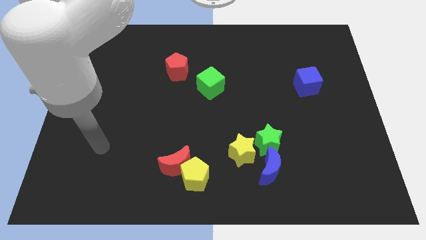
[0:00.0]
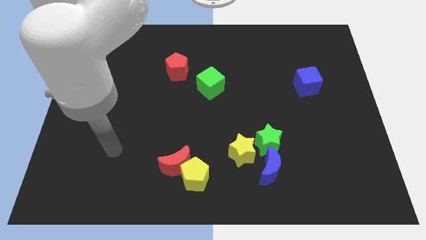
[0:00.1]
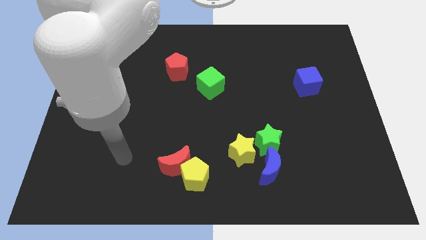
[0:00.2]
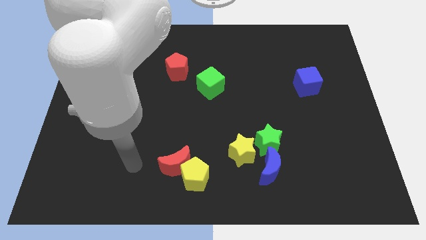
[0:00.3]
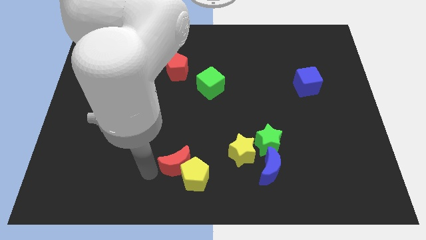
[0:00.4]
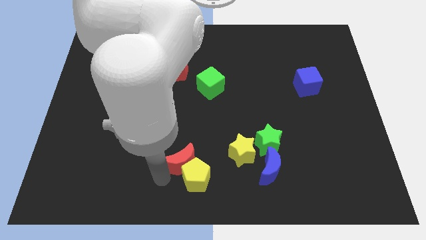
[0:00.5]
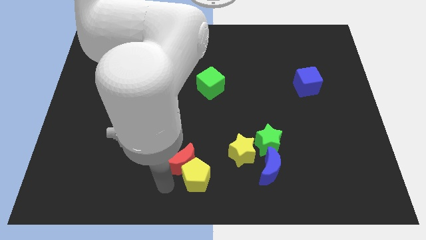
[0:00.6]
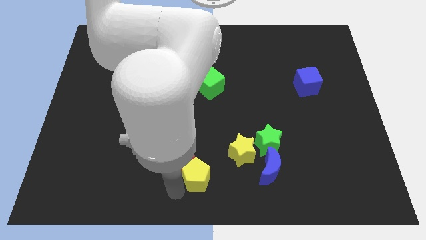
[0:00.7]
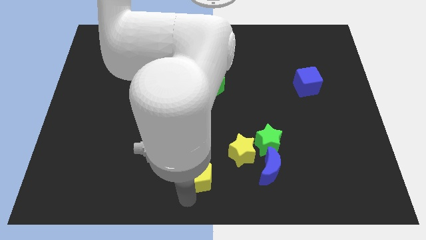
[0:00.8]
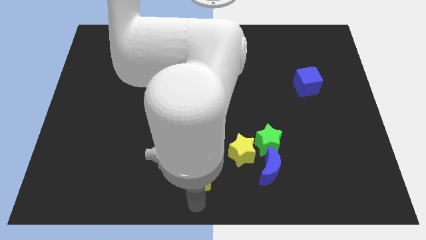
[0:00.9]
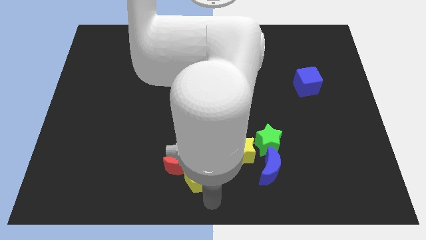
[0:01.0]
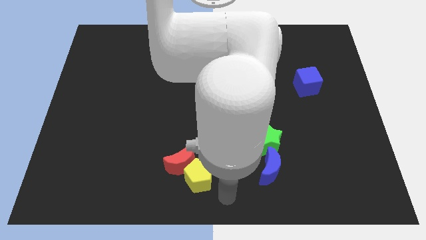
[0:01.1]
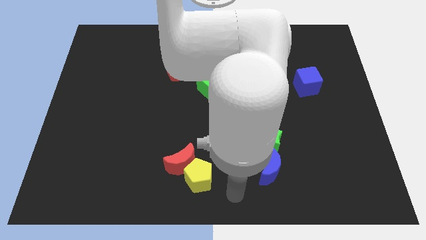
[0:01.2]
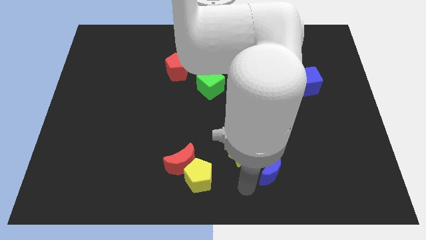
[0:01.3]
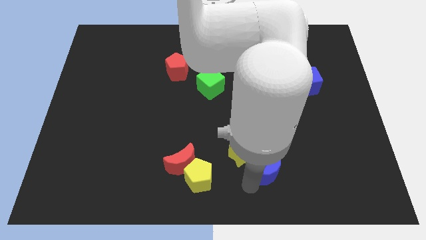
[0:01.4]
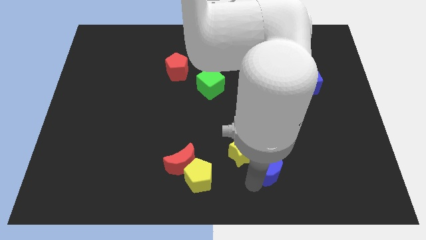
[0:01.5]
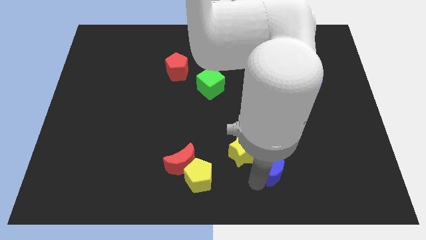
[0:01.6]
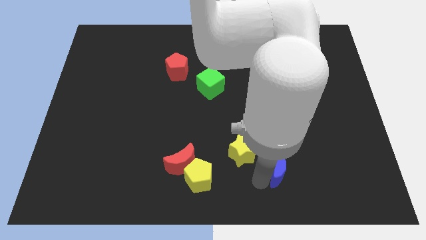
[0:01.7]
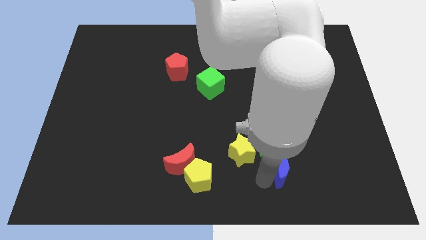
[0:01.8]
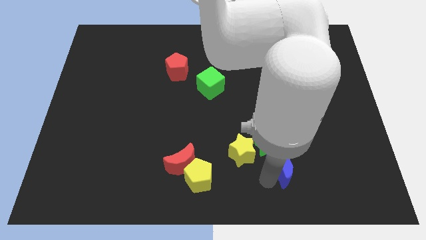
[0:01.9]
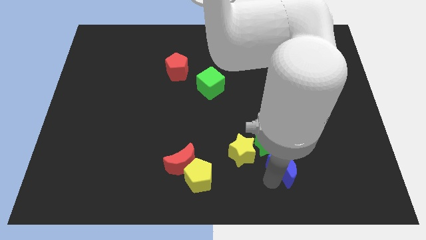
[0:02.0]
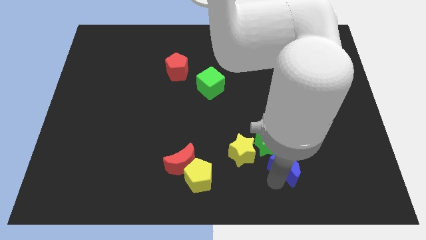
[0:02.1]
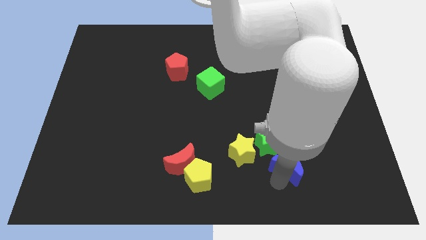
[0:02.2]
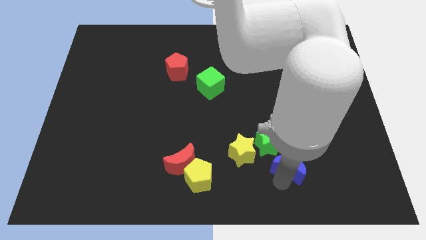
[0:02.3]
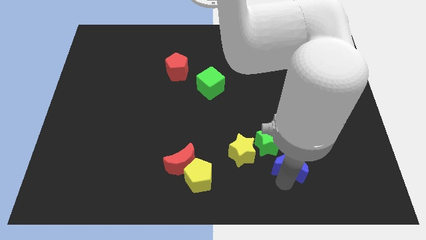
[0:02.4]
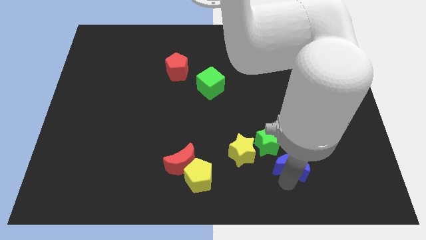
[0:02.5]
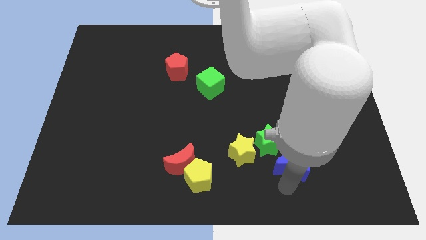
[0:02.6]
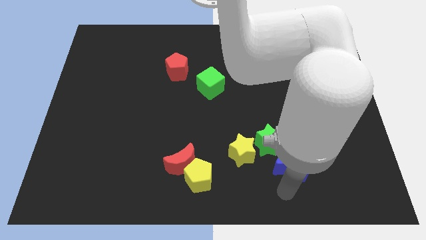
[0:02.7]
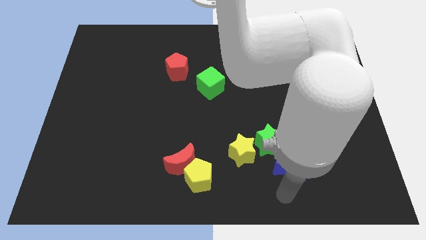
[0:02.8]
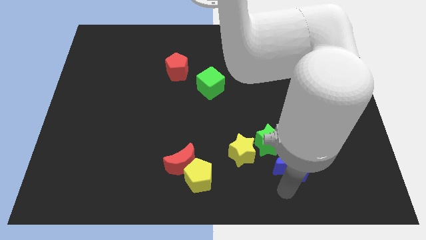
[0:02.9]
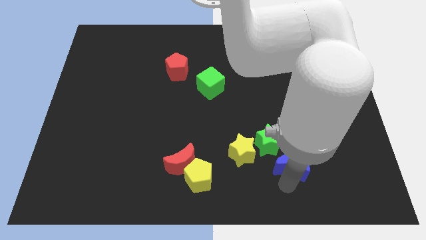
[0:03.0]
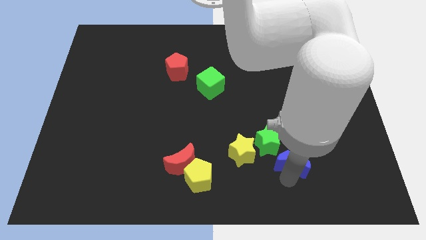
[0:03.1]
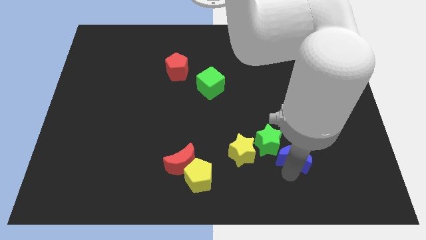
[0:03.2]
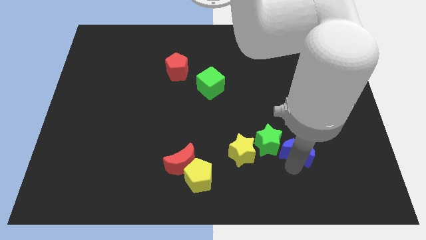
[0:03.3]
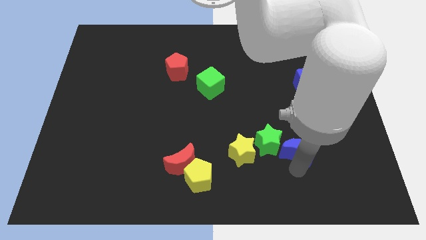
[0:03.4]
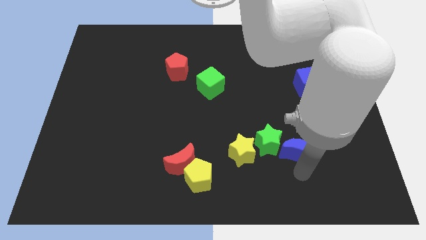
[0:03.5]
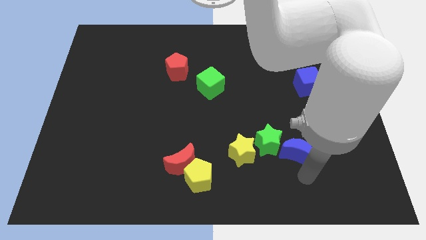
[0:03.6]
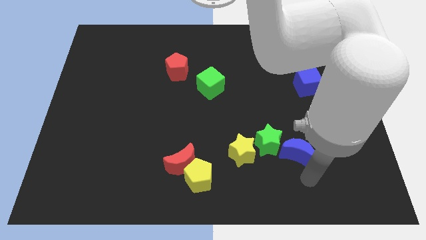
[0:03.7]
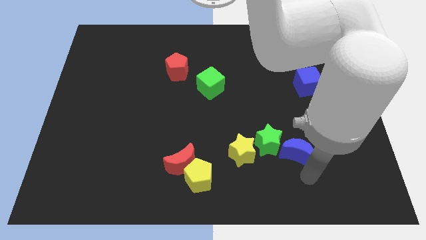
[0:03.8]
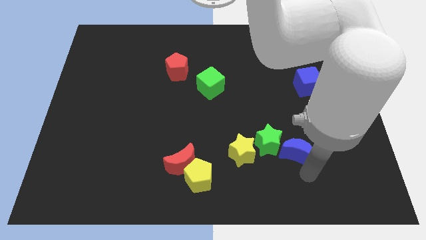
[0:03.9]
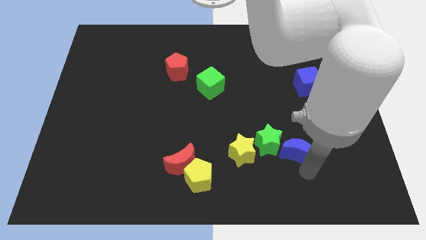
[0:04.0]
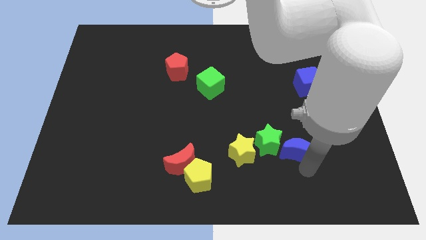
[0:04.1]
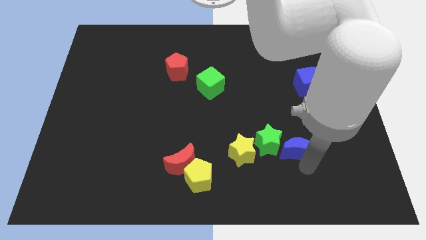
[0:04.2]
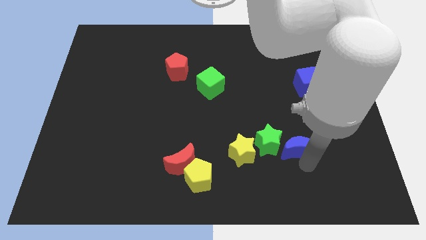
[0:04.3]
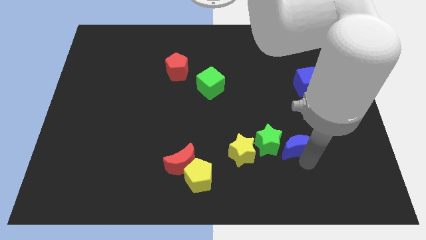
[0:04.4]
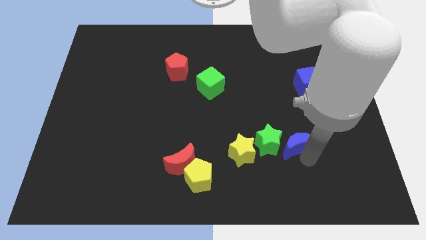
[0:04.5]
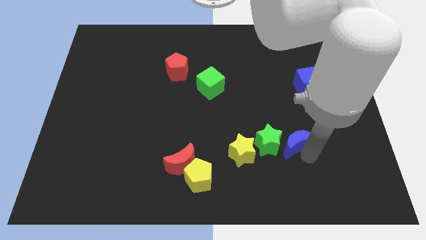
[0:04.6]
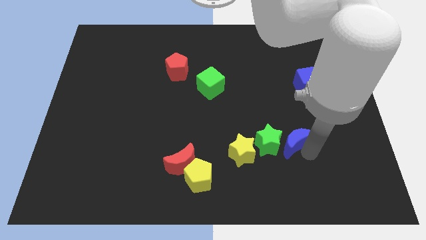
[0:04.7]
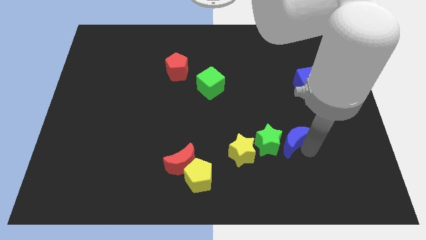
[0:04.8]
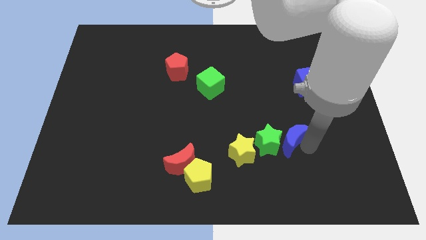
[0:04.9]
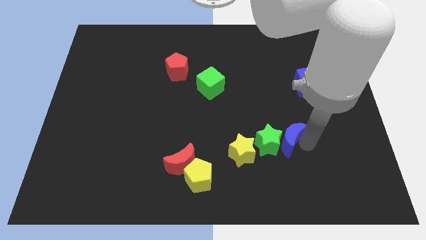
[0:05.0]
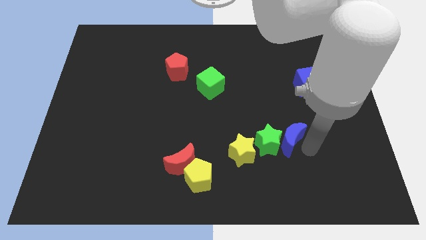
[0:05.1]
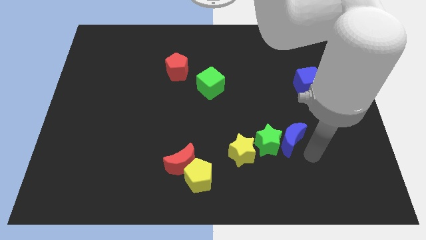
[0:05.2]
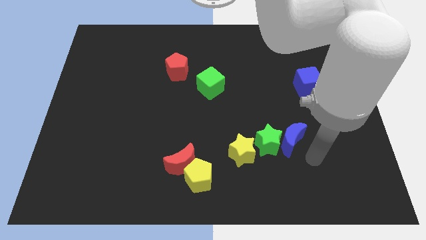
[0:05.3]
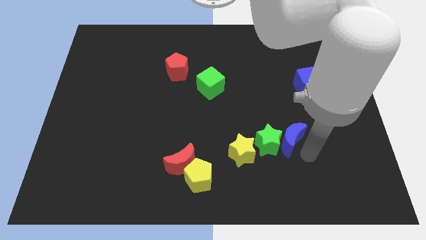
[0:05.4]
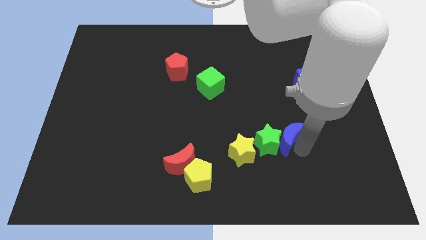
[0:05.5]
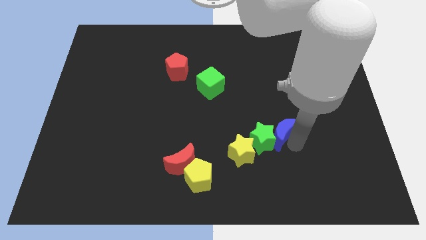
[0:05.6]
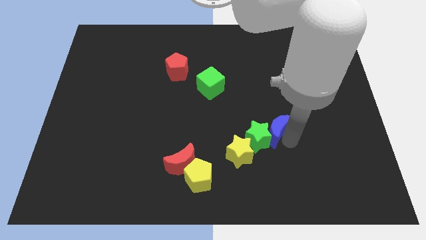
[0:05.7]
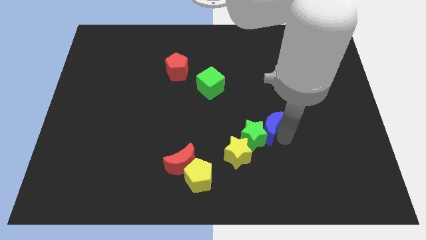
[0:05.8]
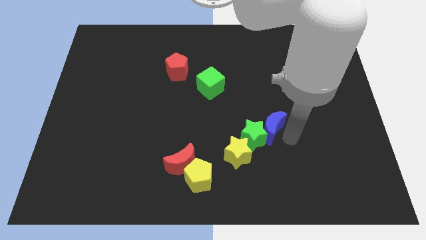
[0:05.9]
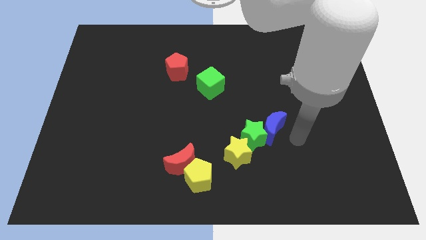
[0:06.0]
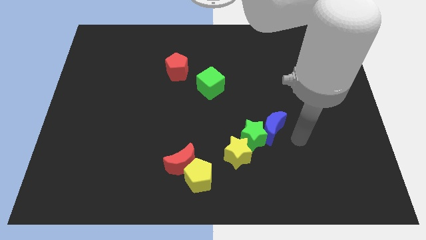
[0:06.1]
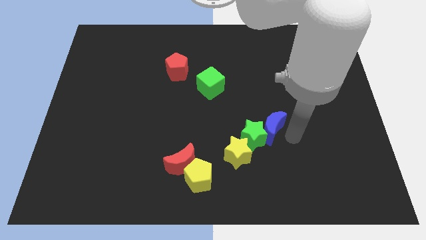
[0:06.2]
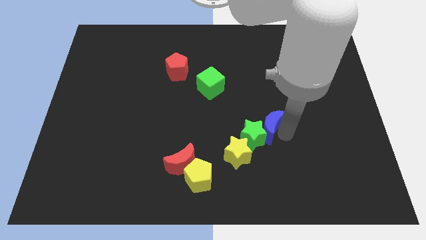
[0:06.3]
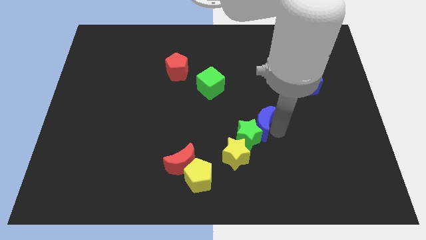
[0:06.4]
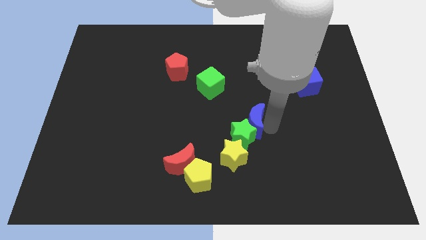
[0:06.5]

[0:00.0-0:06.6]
slightly move the blue moon upwards and then to the left

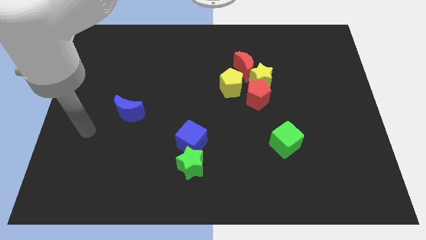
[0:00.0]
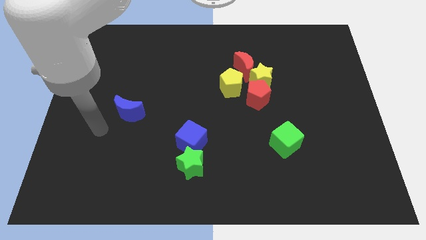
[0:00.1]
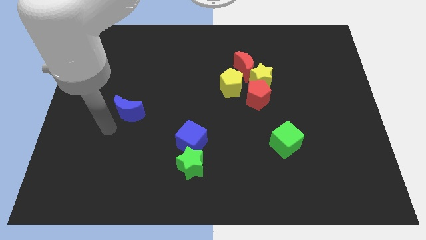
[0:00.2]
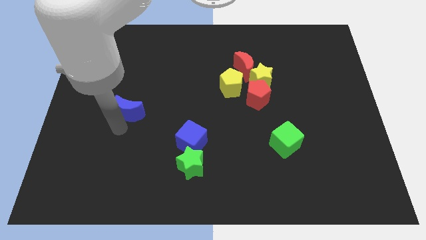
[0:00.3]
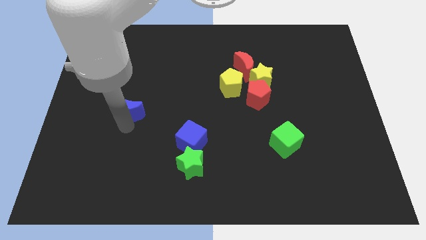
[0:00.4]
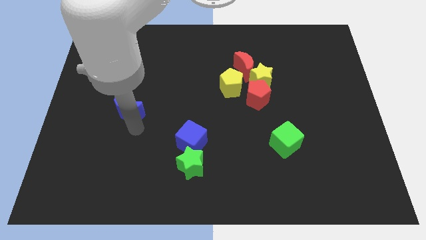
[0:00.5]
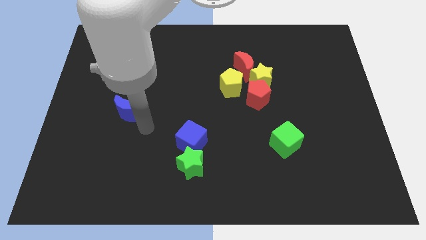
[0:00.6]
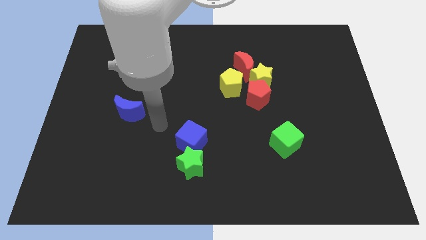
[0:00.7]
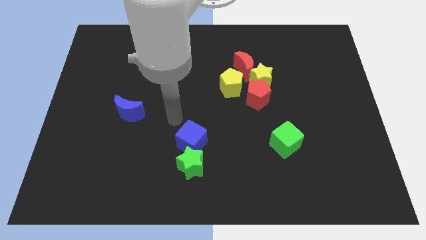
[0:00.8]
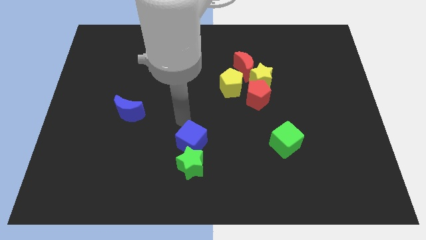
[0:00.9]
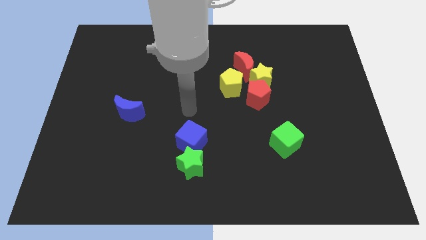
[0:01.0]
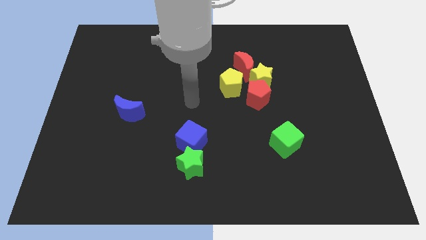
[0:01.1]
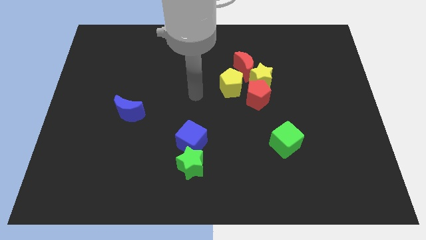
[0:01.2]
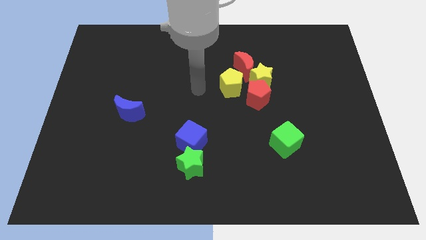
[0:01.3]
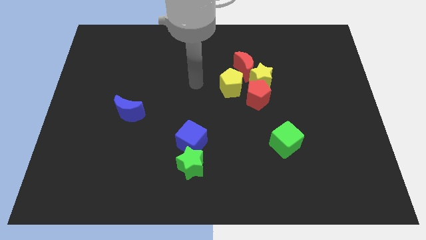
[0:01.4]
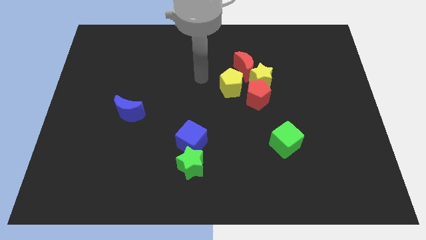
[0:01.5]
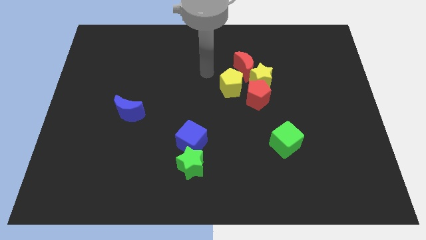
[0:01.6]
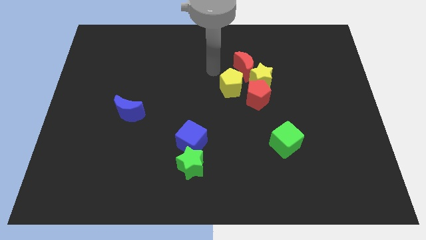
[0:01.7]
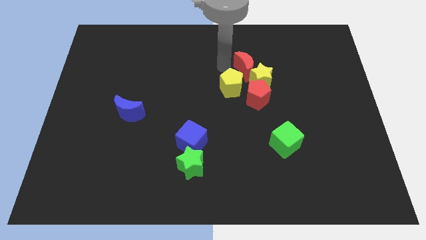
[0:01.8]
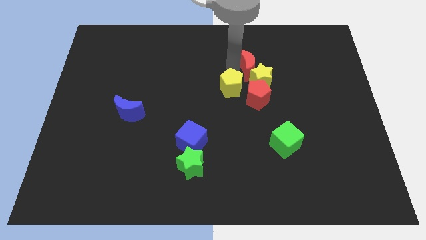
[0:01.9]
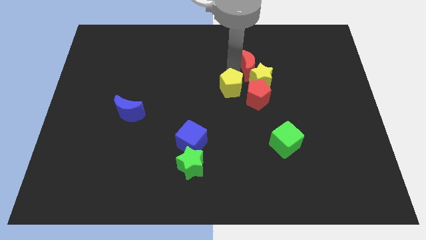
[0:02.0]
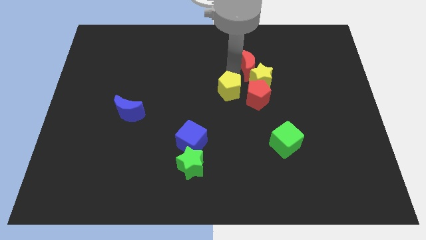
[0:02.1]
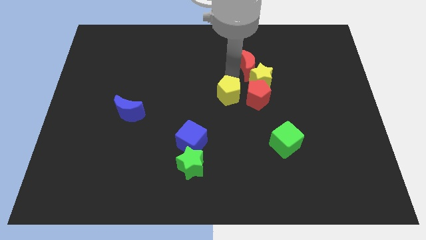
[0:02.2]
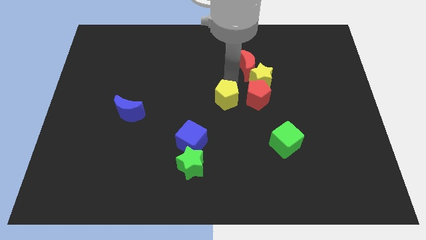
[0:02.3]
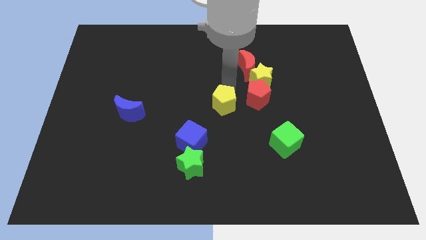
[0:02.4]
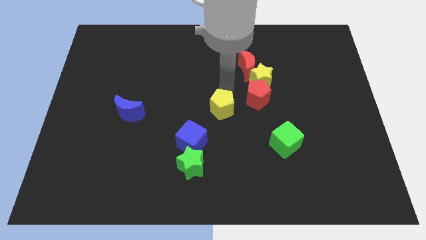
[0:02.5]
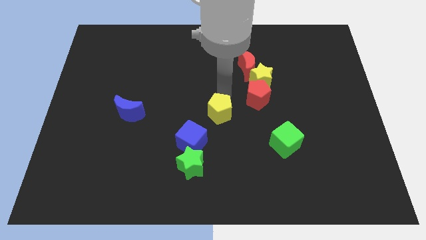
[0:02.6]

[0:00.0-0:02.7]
slide the yellow pentagon a little bit downwards
